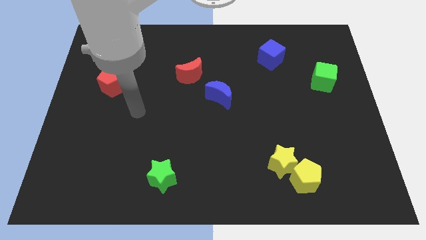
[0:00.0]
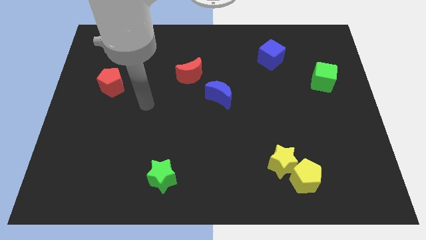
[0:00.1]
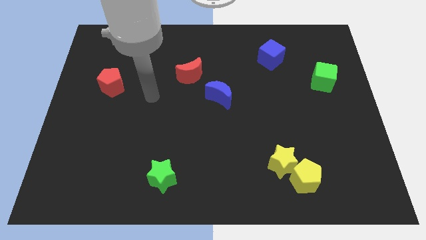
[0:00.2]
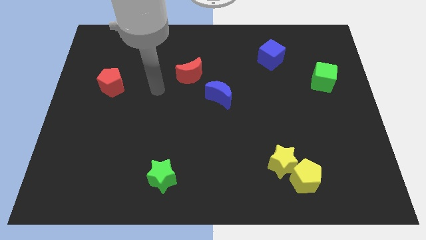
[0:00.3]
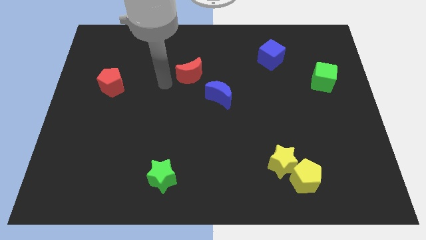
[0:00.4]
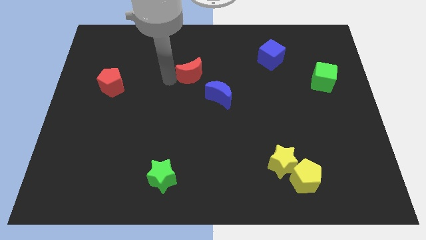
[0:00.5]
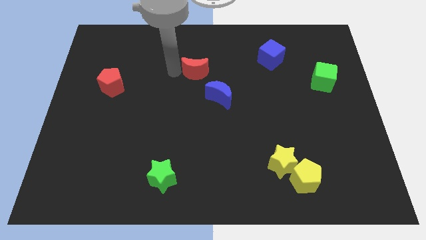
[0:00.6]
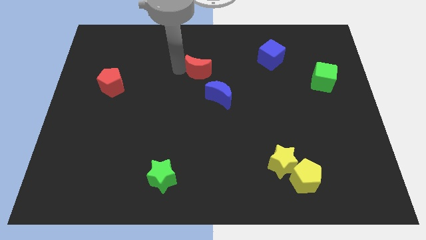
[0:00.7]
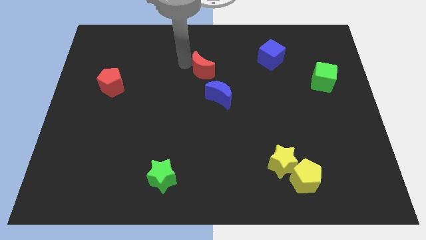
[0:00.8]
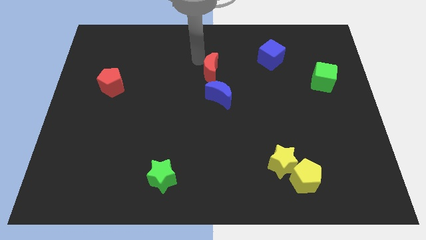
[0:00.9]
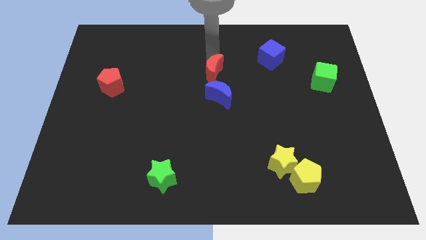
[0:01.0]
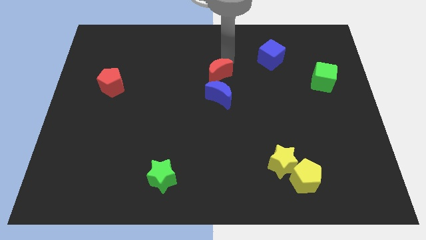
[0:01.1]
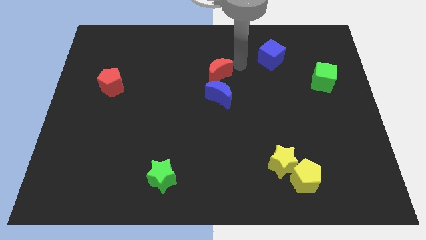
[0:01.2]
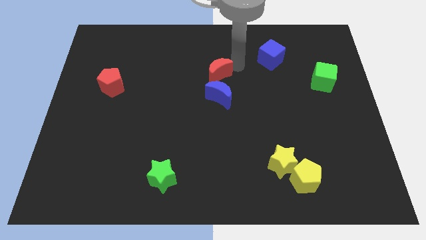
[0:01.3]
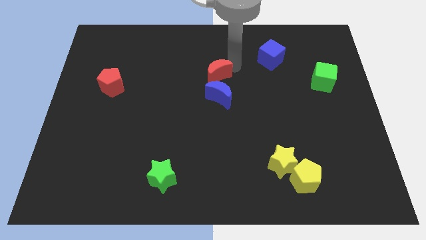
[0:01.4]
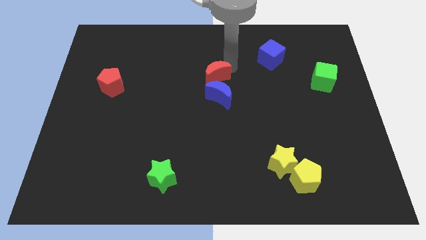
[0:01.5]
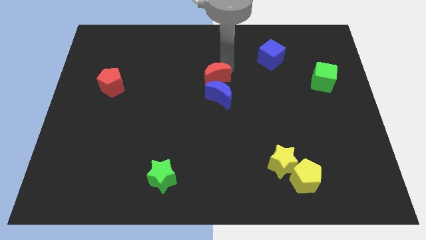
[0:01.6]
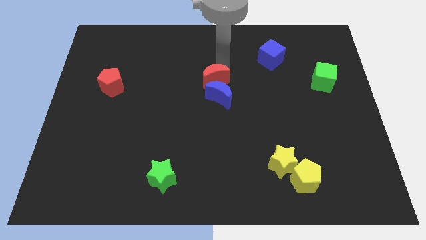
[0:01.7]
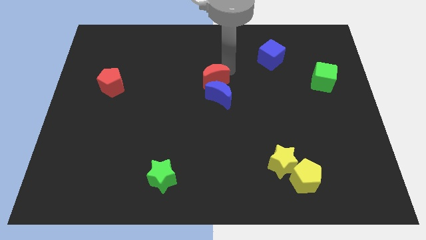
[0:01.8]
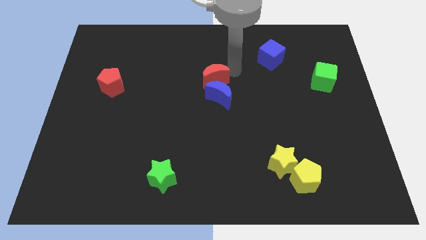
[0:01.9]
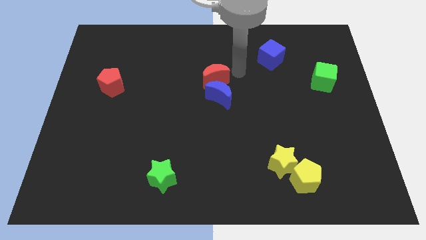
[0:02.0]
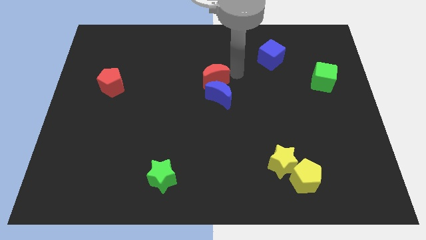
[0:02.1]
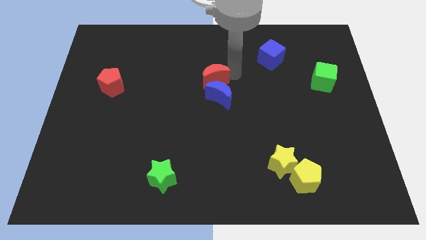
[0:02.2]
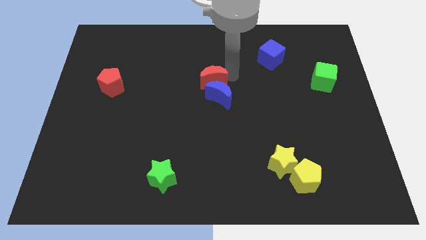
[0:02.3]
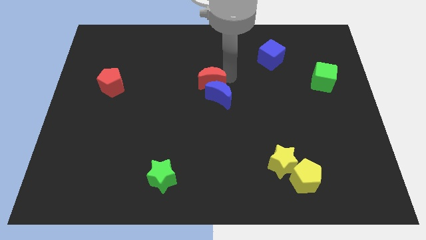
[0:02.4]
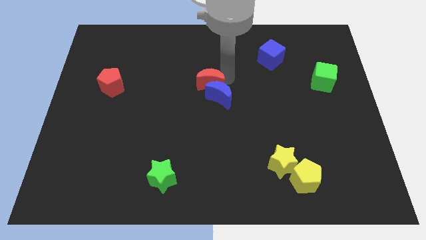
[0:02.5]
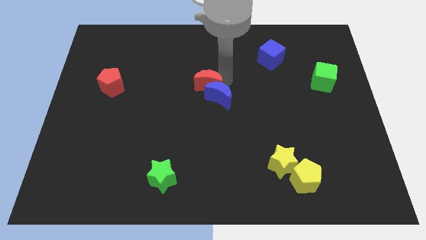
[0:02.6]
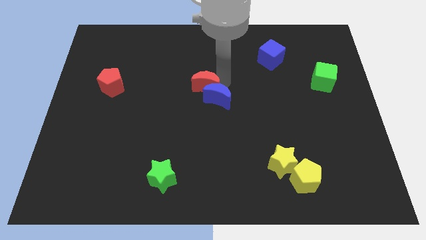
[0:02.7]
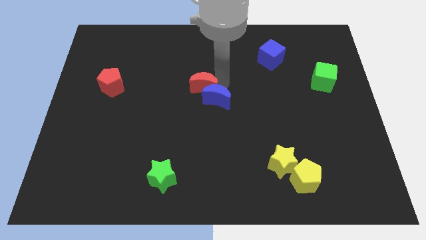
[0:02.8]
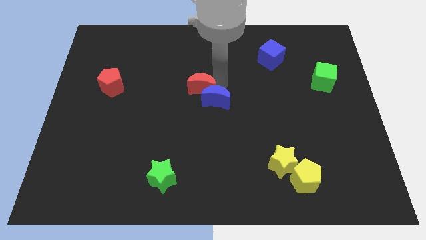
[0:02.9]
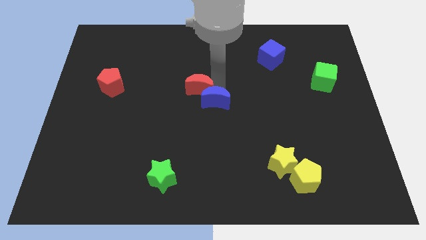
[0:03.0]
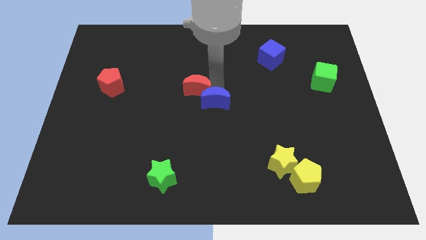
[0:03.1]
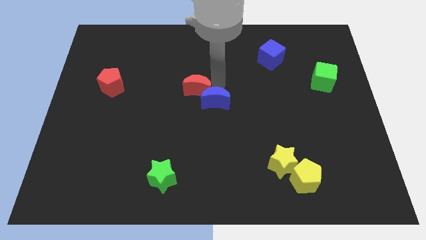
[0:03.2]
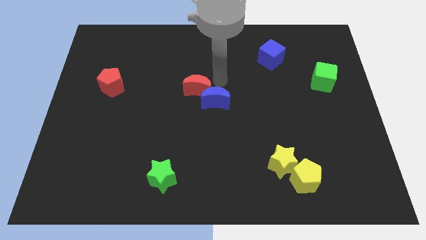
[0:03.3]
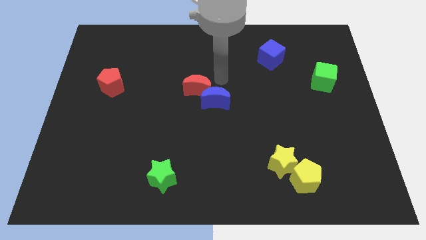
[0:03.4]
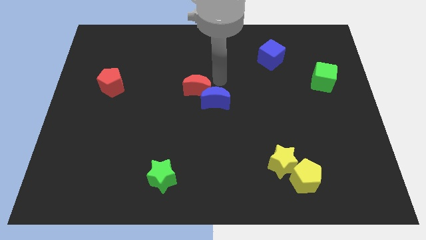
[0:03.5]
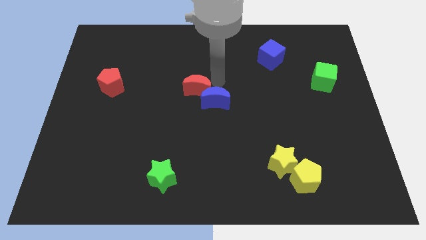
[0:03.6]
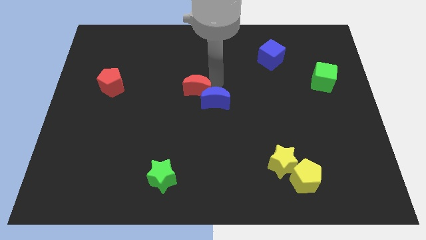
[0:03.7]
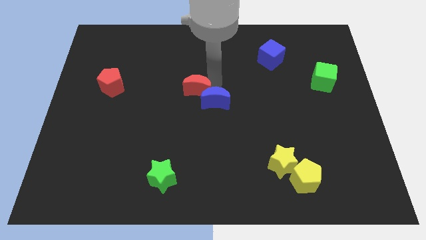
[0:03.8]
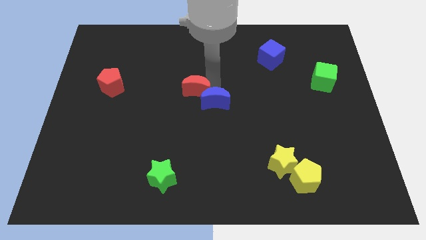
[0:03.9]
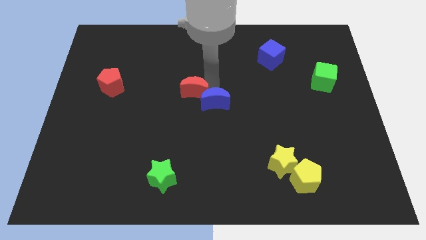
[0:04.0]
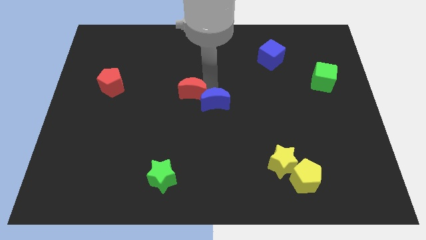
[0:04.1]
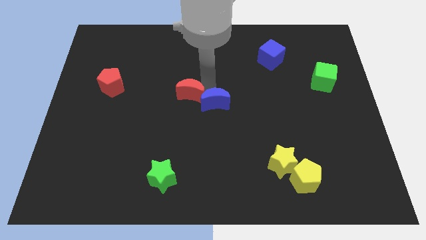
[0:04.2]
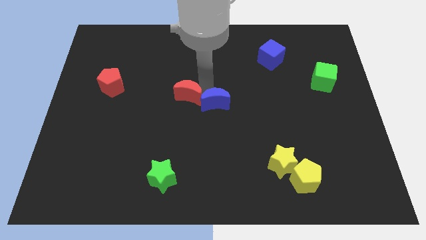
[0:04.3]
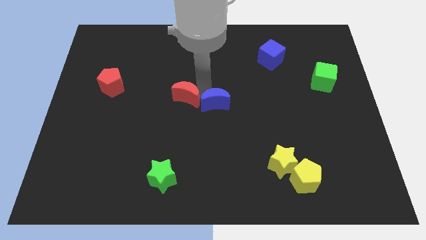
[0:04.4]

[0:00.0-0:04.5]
push the red moon down a little bit

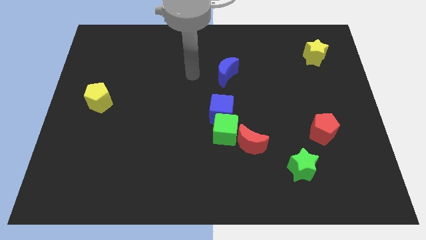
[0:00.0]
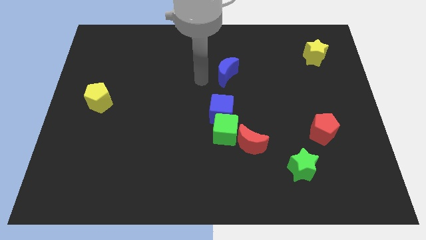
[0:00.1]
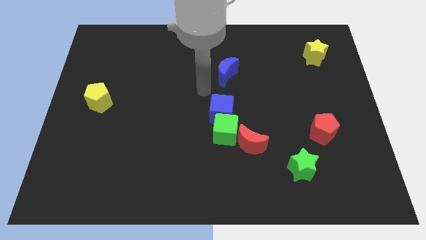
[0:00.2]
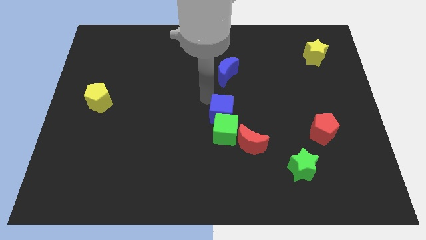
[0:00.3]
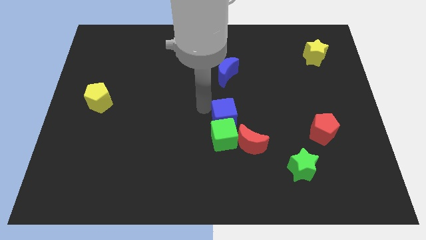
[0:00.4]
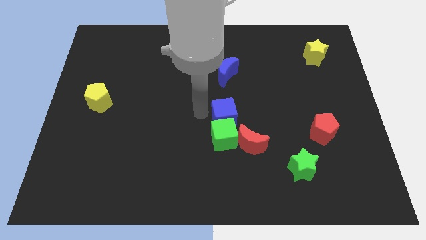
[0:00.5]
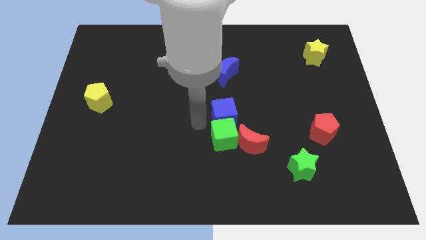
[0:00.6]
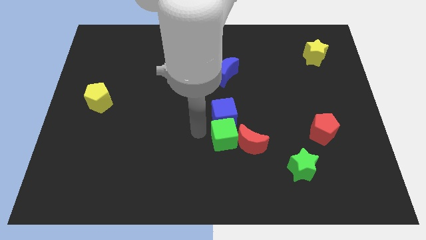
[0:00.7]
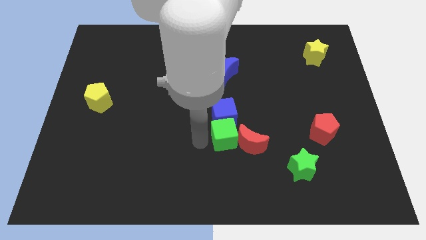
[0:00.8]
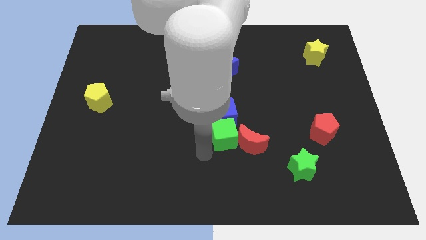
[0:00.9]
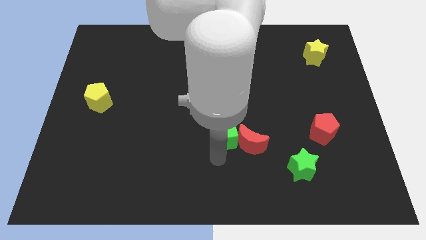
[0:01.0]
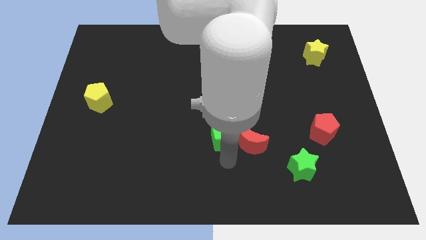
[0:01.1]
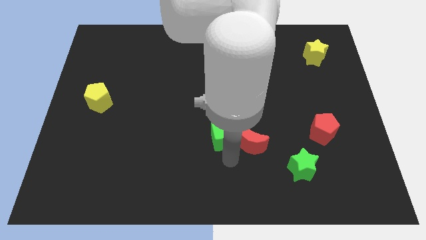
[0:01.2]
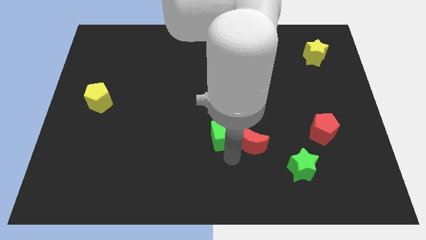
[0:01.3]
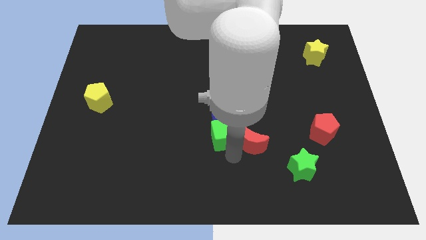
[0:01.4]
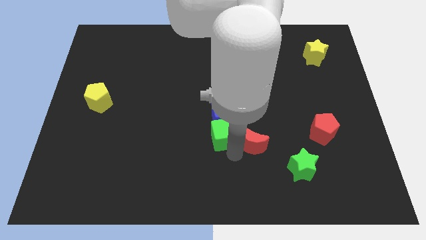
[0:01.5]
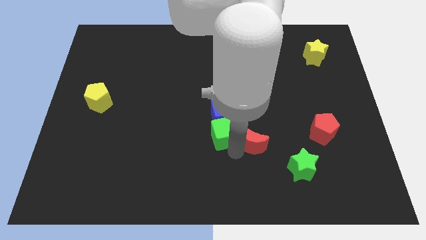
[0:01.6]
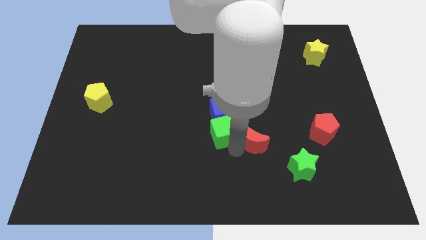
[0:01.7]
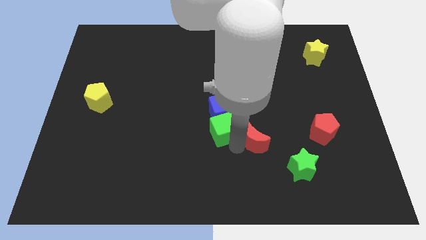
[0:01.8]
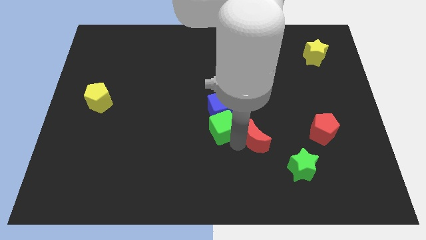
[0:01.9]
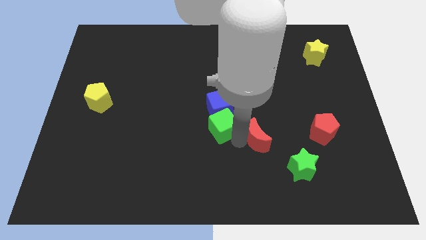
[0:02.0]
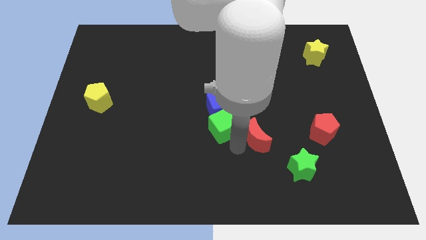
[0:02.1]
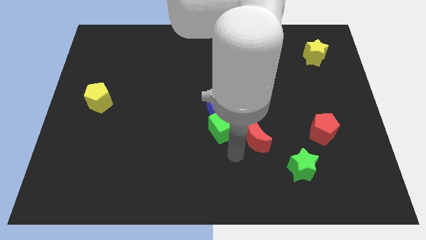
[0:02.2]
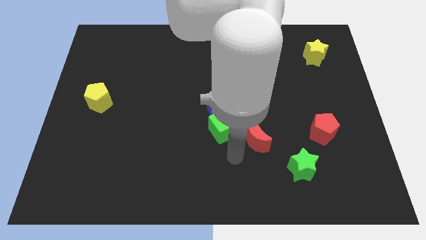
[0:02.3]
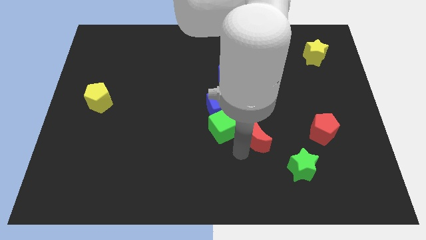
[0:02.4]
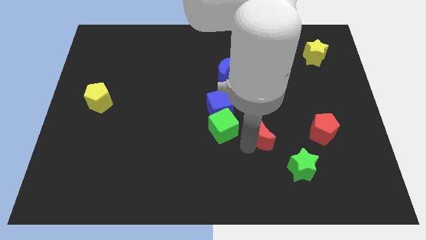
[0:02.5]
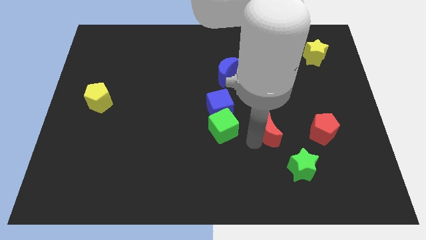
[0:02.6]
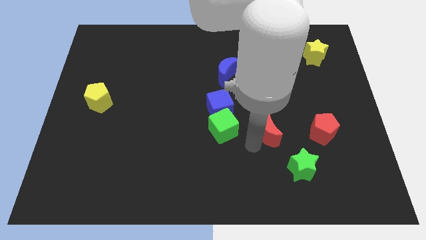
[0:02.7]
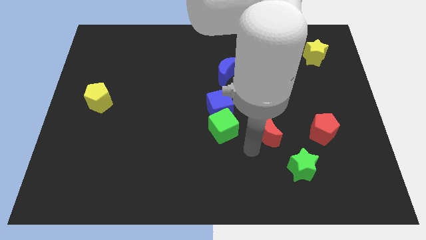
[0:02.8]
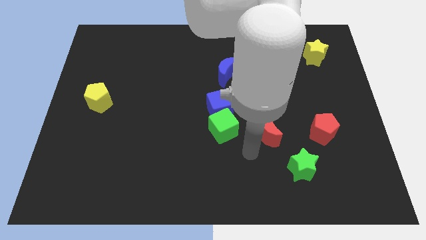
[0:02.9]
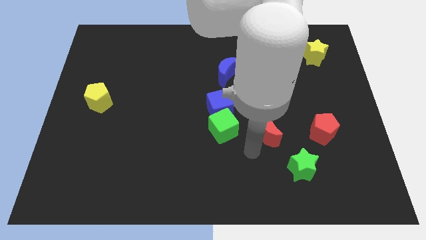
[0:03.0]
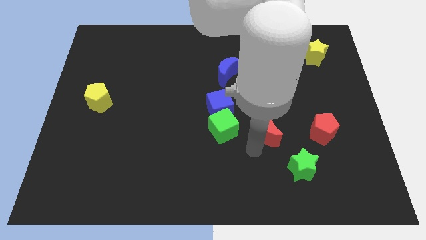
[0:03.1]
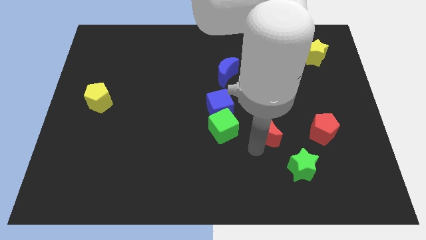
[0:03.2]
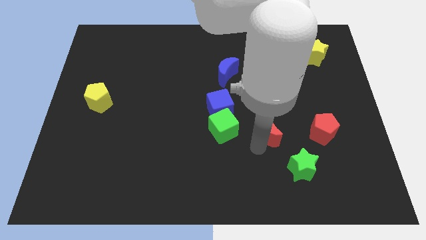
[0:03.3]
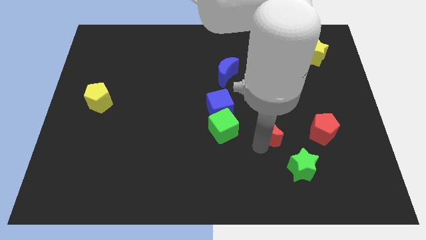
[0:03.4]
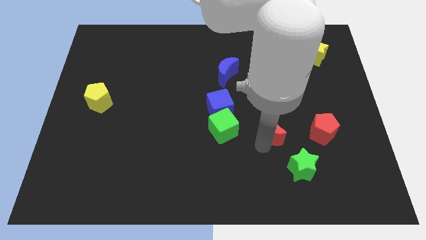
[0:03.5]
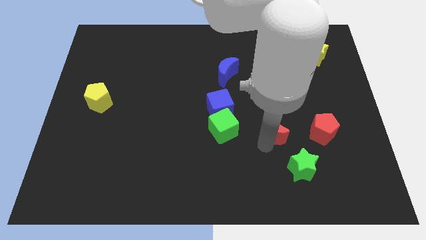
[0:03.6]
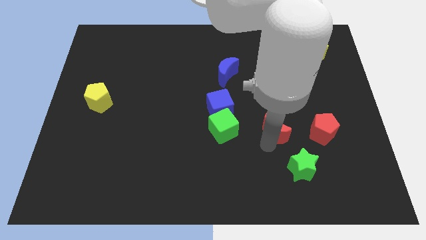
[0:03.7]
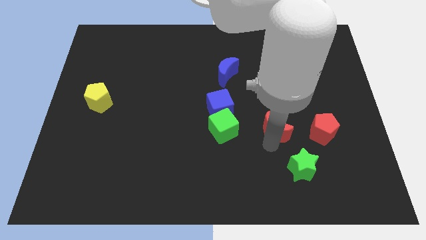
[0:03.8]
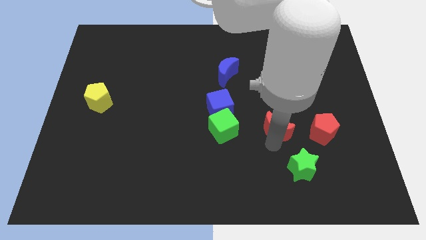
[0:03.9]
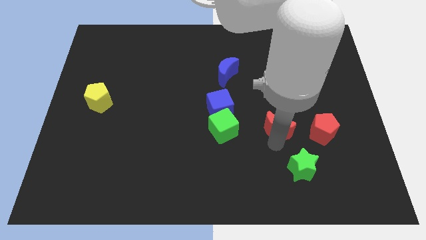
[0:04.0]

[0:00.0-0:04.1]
move the red moon somewhat diagonally upwards and to the right
